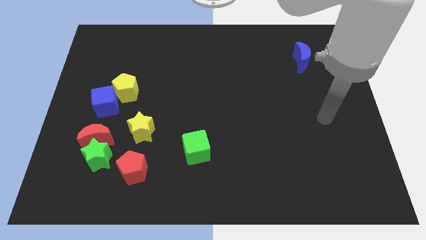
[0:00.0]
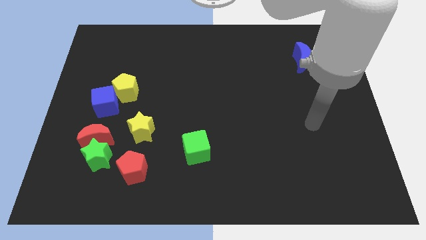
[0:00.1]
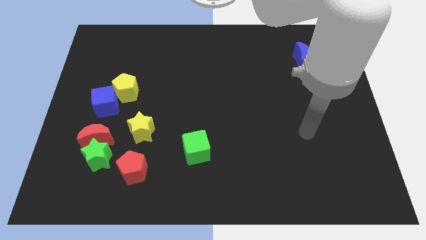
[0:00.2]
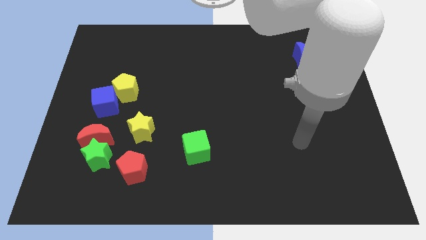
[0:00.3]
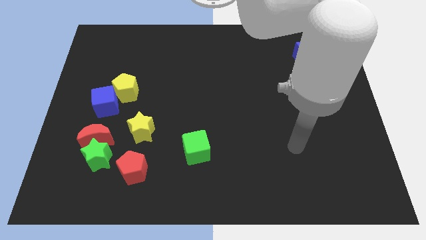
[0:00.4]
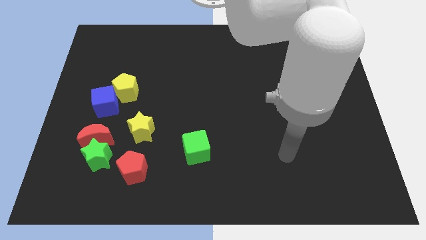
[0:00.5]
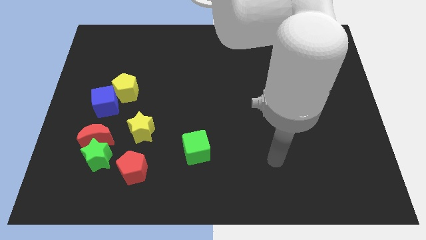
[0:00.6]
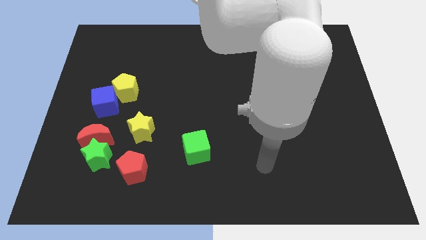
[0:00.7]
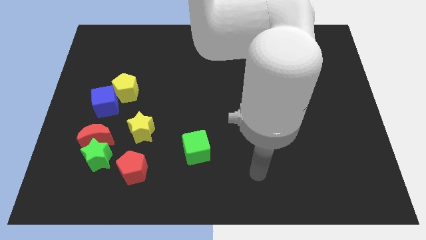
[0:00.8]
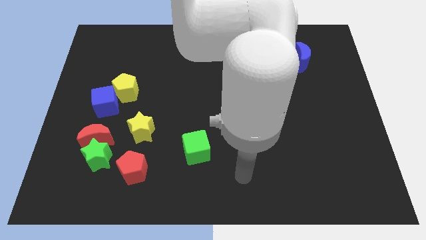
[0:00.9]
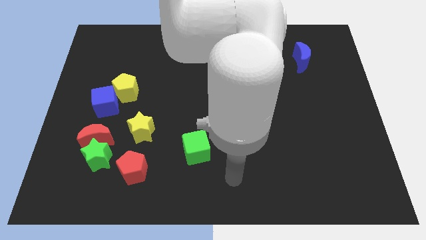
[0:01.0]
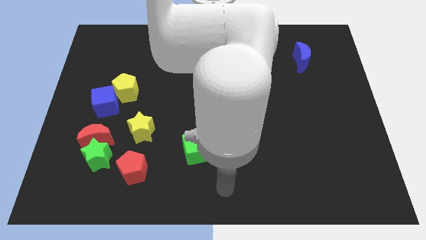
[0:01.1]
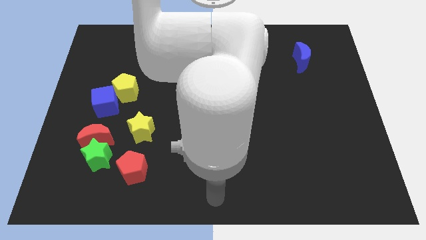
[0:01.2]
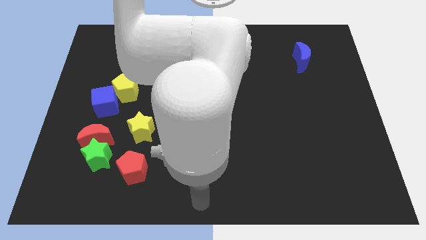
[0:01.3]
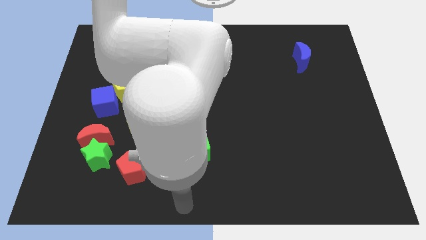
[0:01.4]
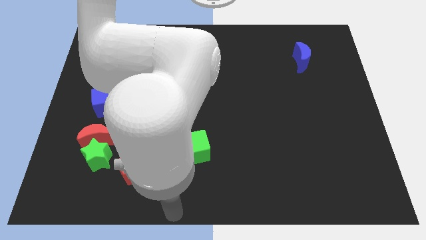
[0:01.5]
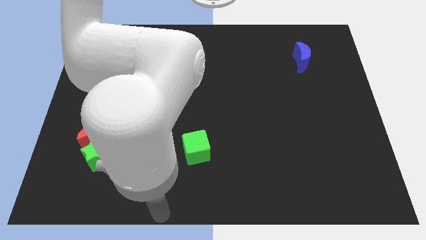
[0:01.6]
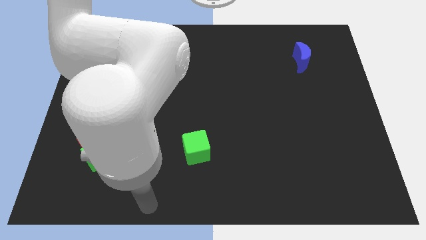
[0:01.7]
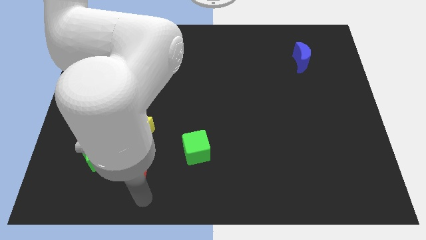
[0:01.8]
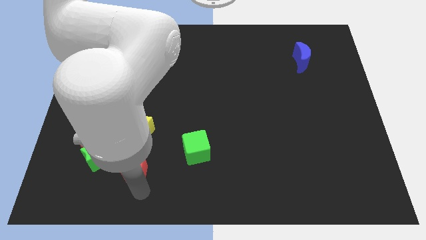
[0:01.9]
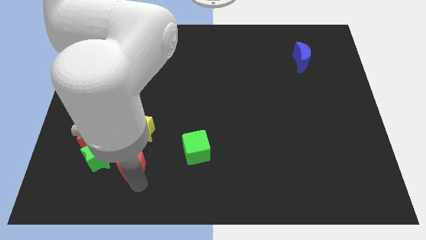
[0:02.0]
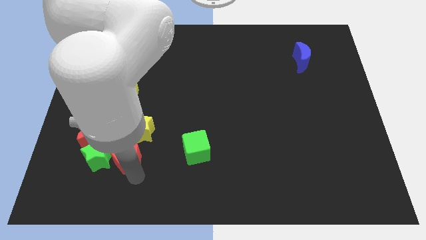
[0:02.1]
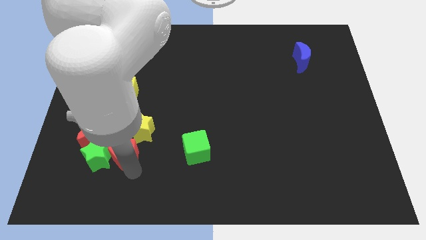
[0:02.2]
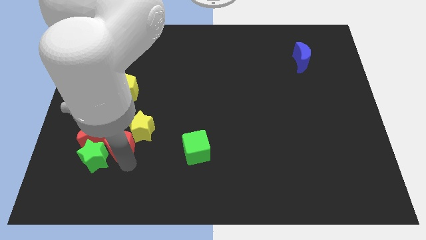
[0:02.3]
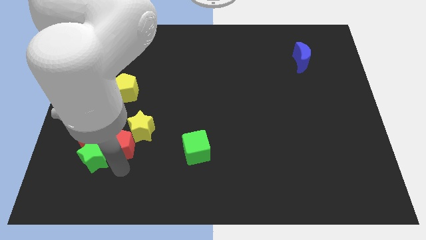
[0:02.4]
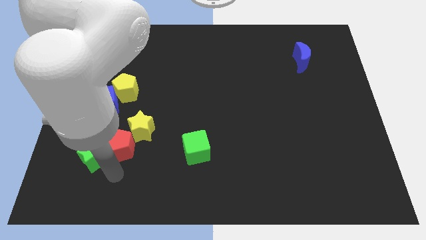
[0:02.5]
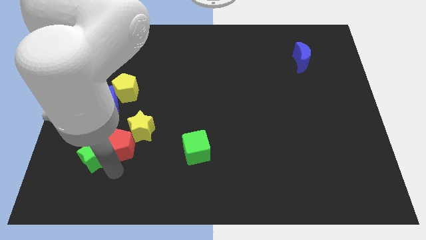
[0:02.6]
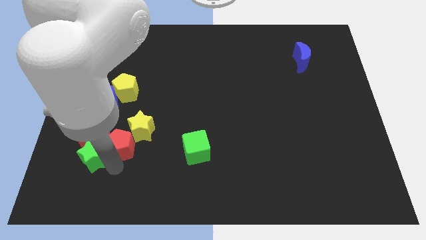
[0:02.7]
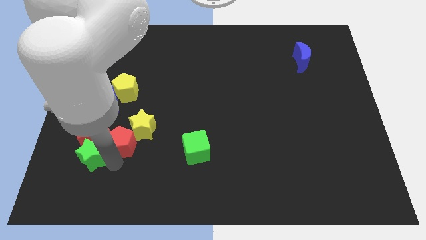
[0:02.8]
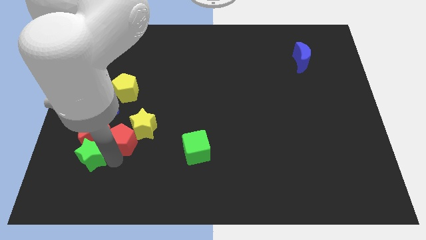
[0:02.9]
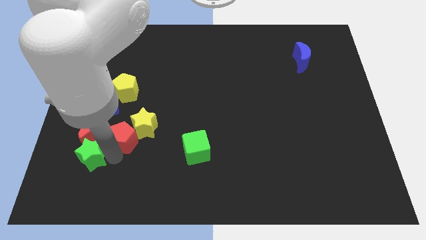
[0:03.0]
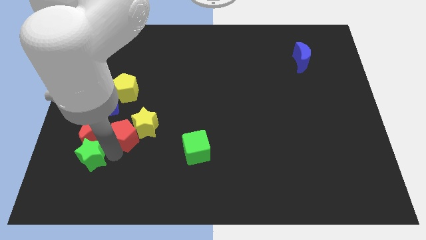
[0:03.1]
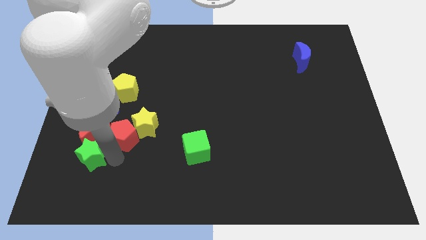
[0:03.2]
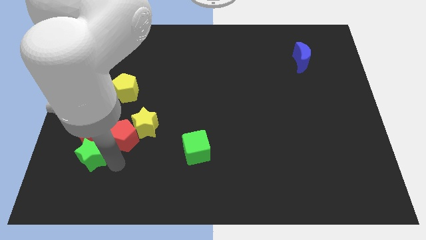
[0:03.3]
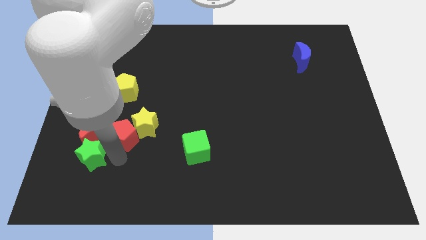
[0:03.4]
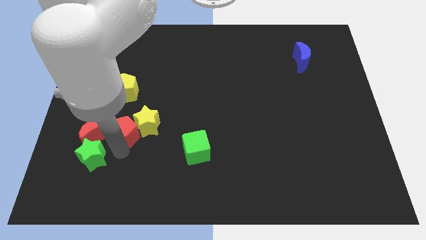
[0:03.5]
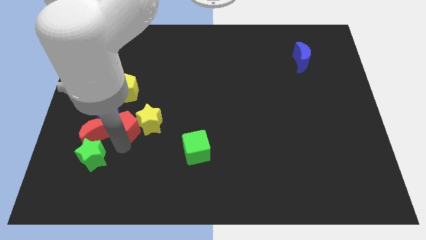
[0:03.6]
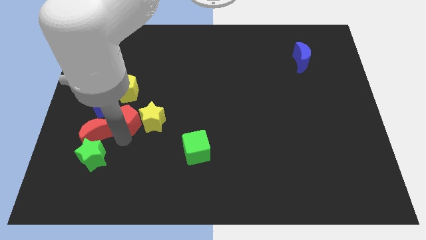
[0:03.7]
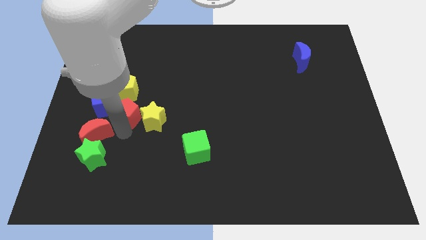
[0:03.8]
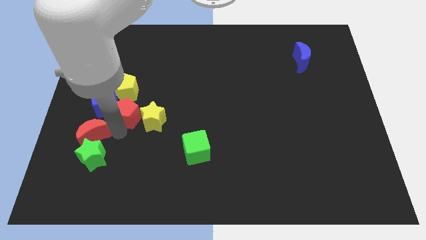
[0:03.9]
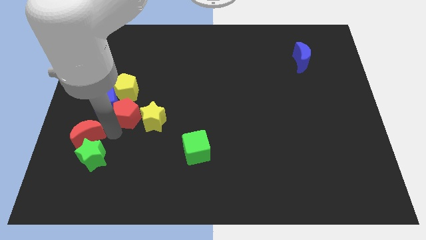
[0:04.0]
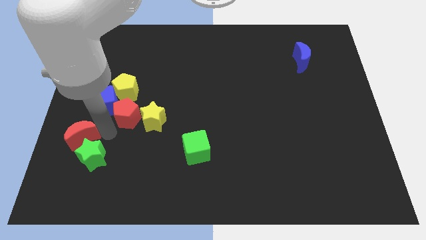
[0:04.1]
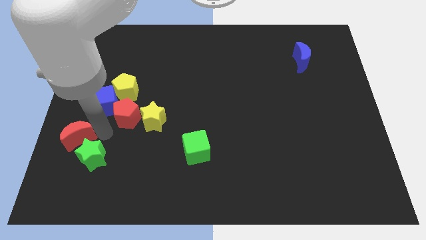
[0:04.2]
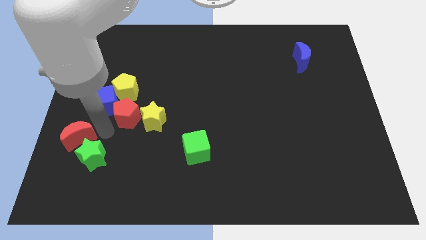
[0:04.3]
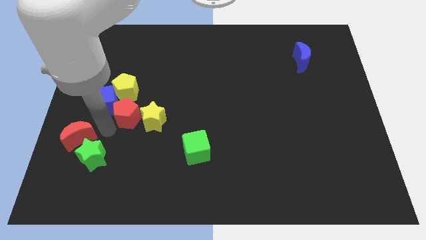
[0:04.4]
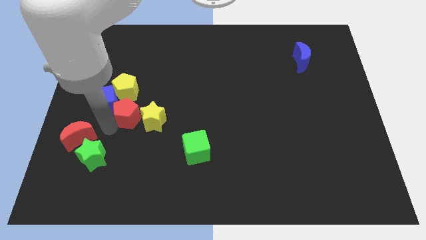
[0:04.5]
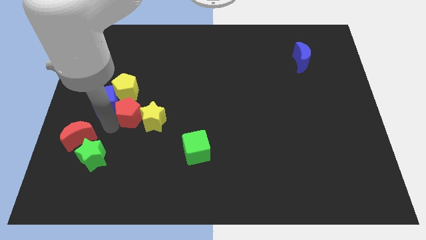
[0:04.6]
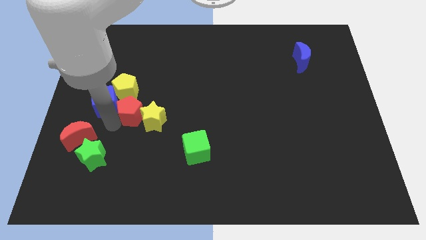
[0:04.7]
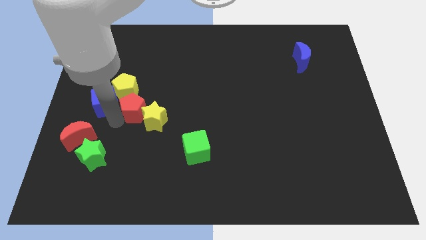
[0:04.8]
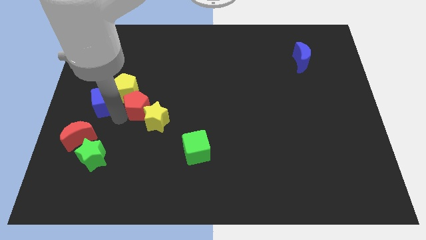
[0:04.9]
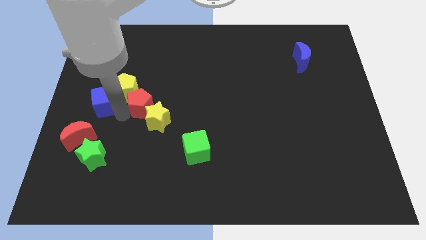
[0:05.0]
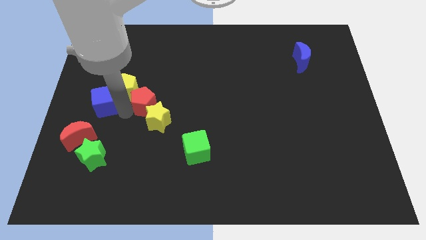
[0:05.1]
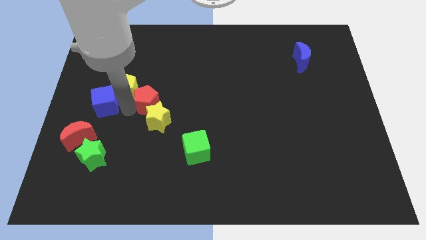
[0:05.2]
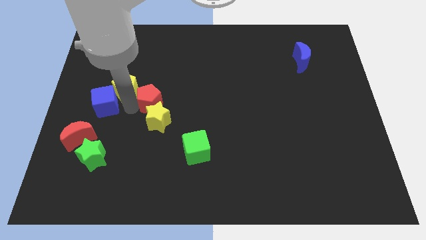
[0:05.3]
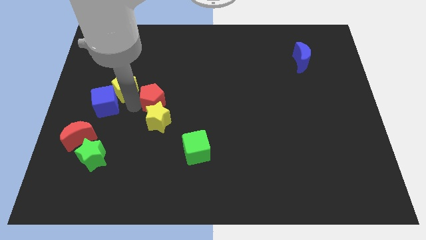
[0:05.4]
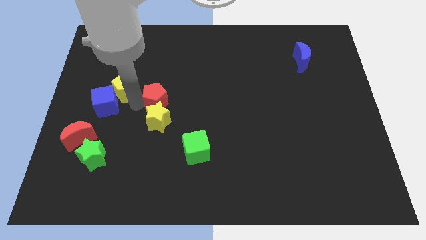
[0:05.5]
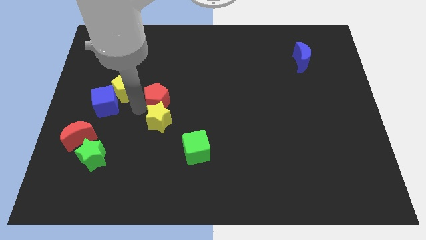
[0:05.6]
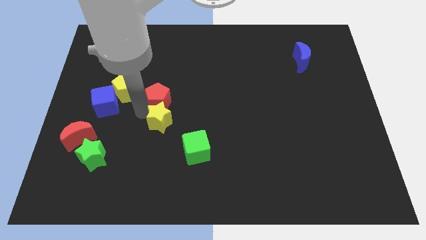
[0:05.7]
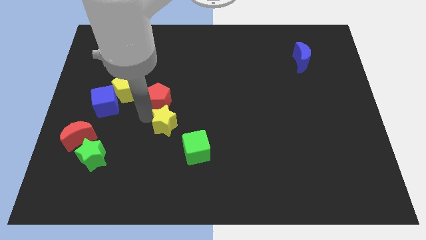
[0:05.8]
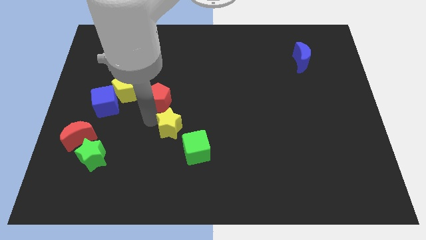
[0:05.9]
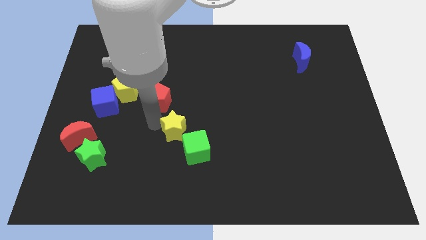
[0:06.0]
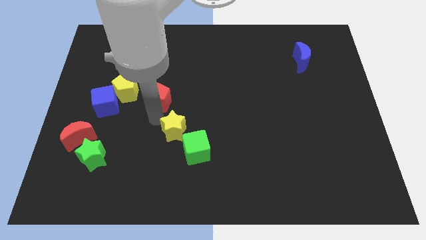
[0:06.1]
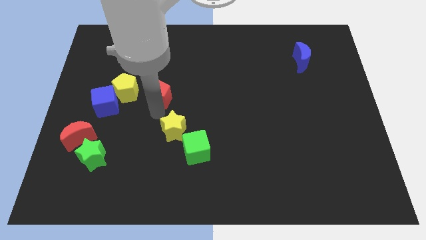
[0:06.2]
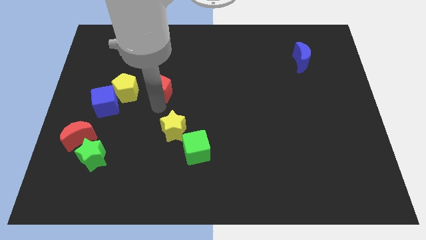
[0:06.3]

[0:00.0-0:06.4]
slide the red pentagon up

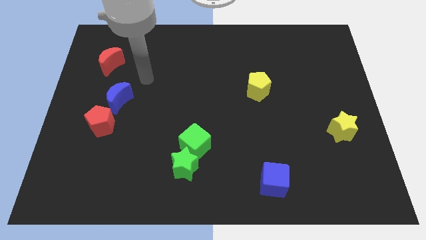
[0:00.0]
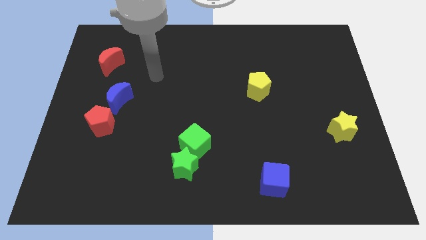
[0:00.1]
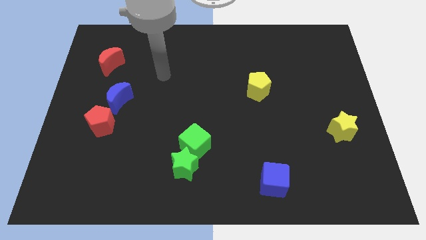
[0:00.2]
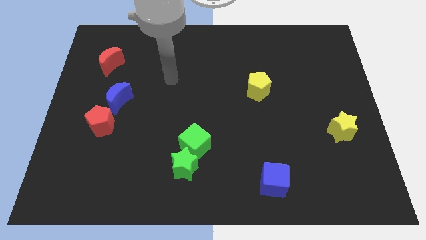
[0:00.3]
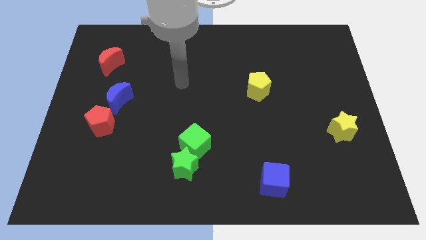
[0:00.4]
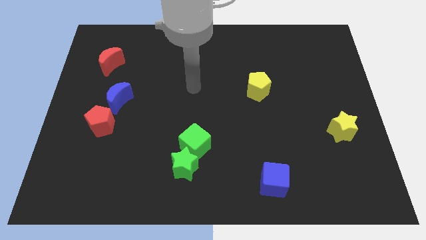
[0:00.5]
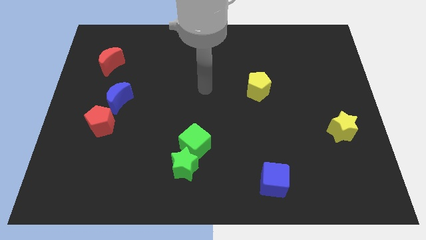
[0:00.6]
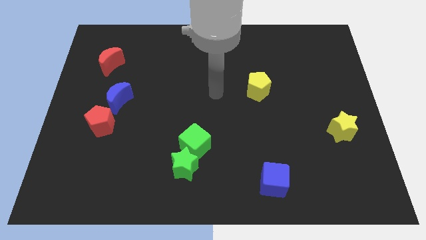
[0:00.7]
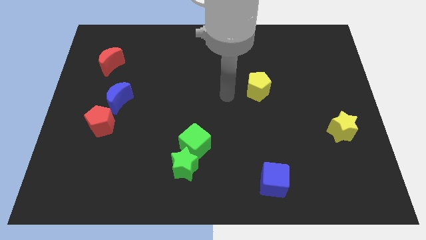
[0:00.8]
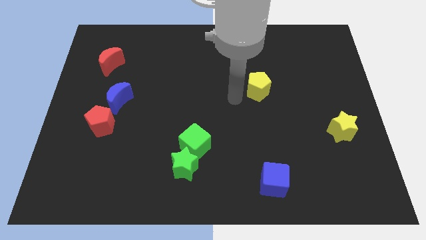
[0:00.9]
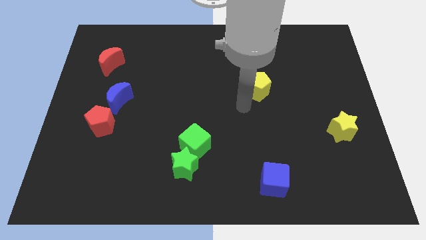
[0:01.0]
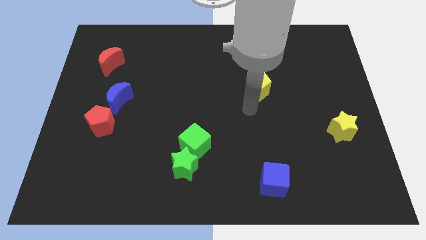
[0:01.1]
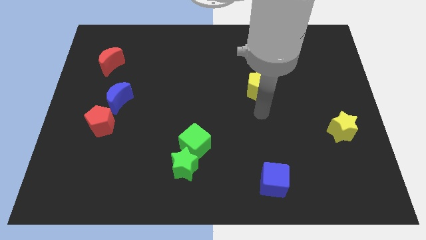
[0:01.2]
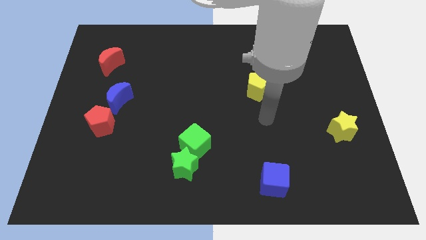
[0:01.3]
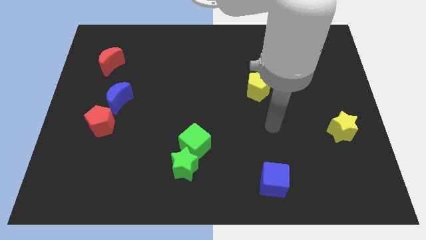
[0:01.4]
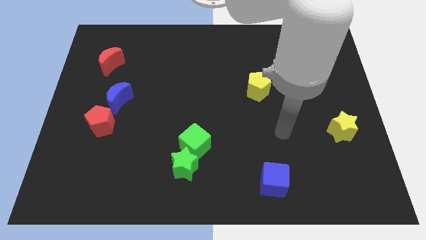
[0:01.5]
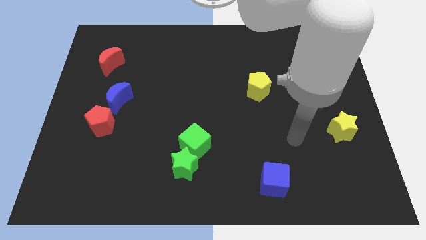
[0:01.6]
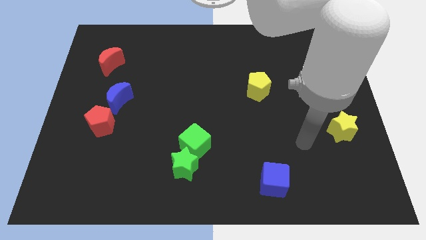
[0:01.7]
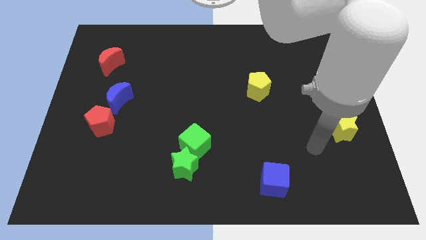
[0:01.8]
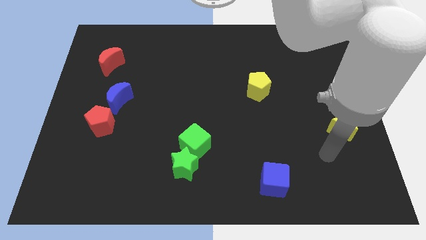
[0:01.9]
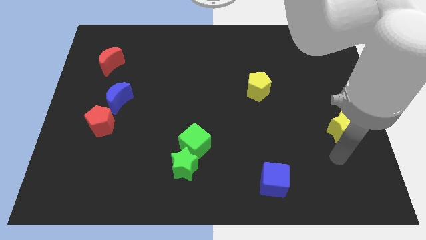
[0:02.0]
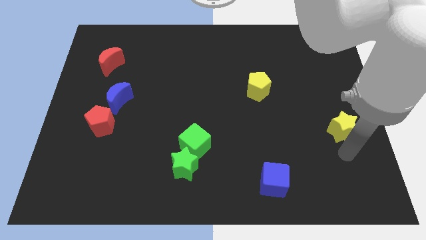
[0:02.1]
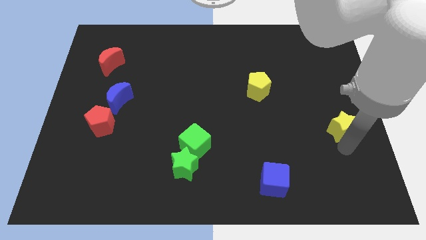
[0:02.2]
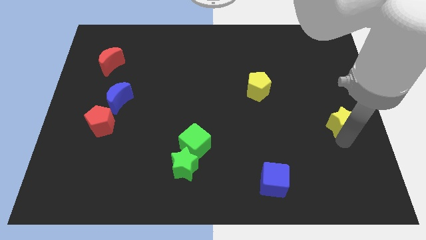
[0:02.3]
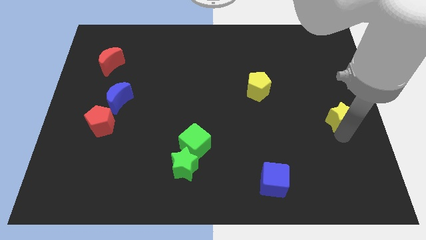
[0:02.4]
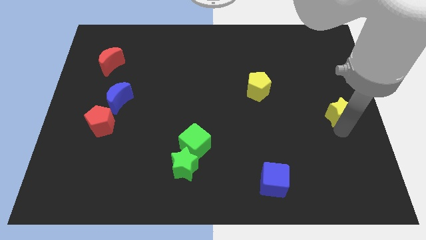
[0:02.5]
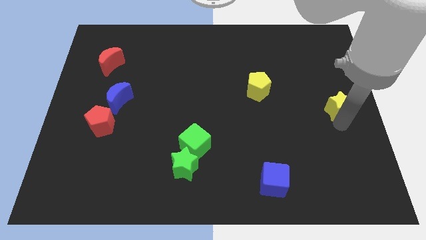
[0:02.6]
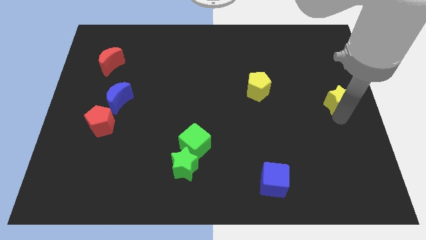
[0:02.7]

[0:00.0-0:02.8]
move the yellow star a little bit up
